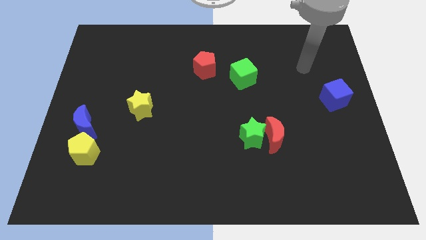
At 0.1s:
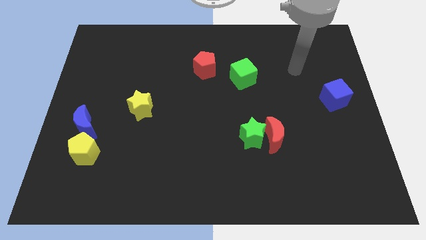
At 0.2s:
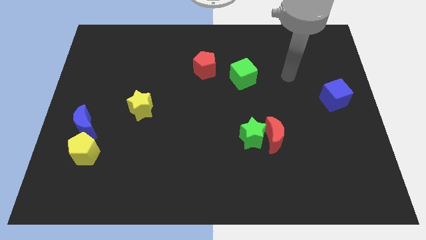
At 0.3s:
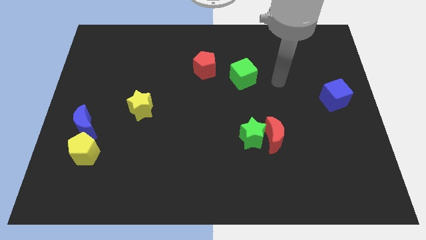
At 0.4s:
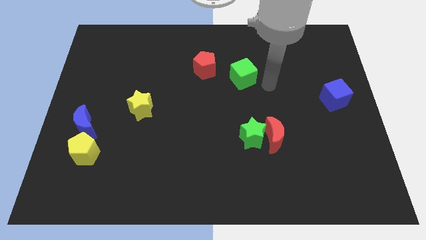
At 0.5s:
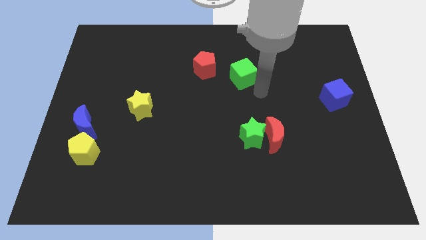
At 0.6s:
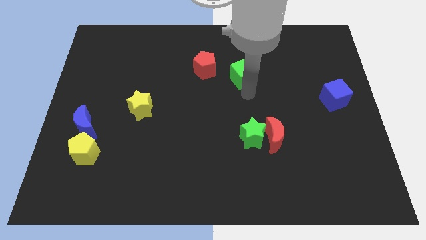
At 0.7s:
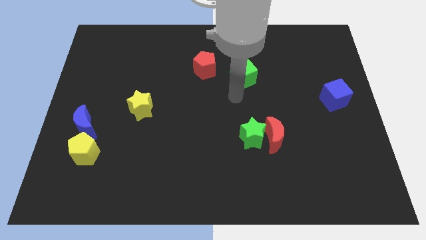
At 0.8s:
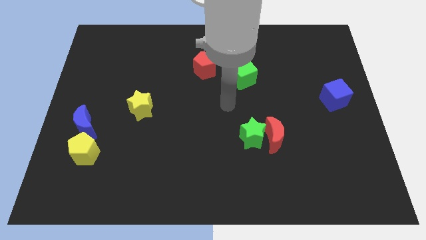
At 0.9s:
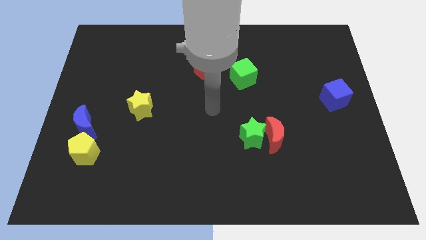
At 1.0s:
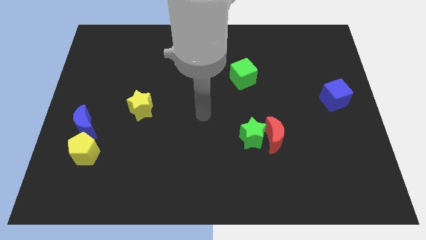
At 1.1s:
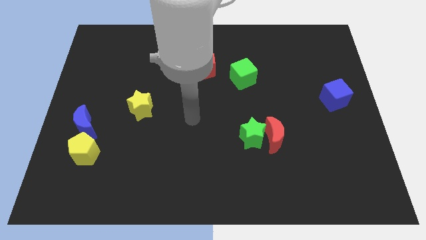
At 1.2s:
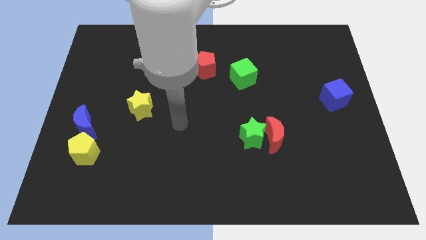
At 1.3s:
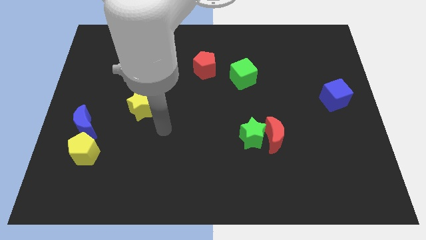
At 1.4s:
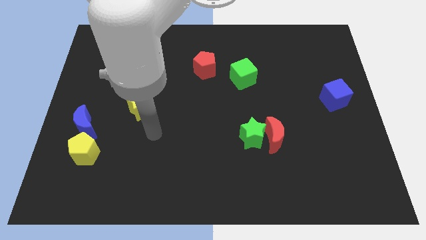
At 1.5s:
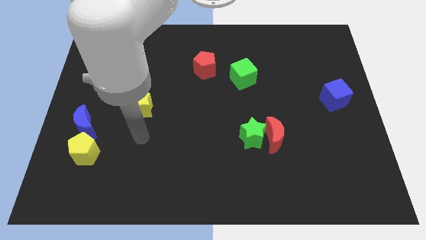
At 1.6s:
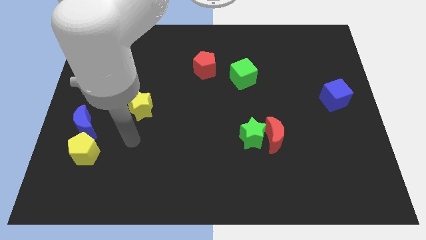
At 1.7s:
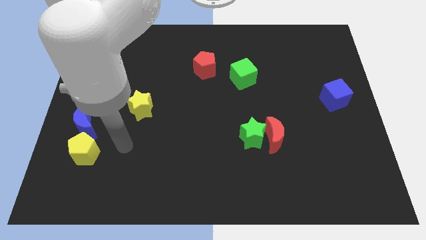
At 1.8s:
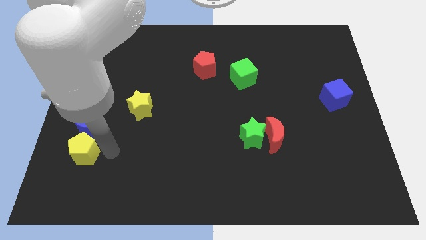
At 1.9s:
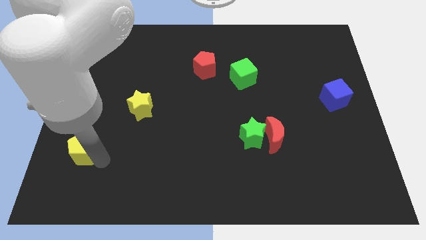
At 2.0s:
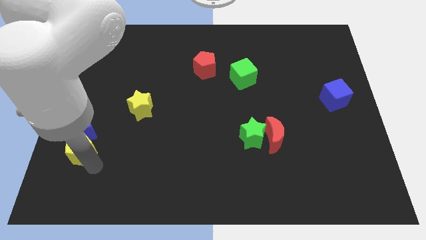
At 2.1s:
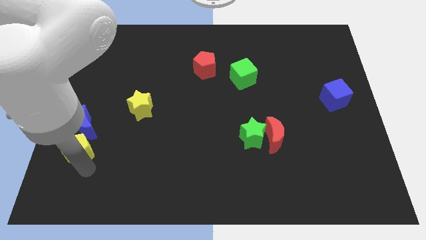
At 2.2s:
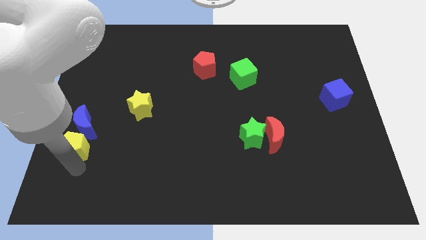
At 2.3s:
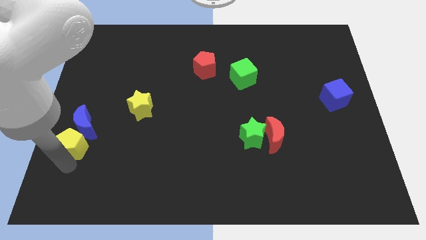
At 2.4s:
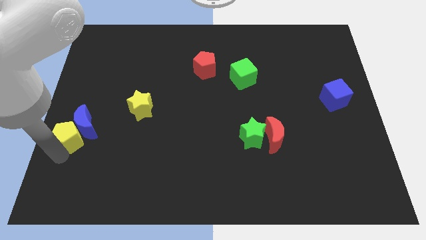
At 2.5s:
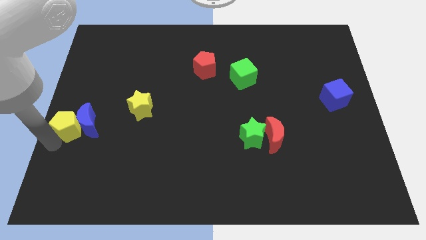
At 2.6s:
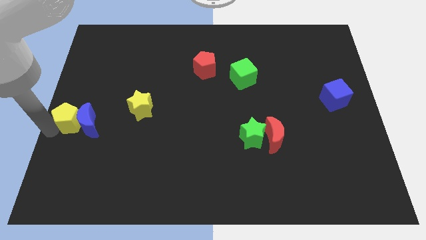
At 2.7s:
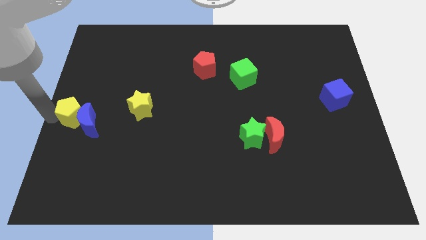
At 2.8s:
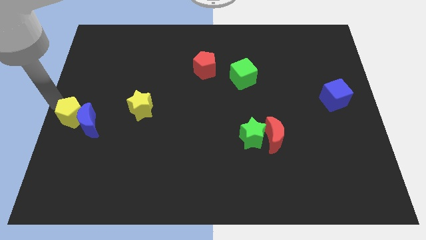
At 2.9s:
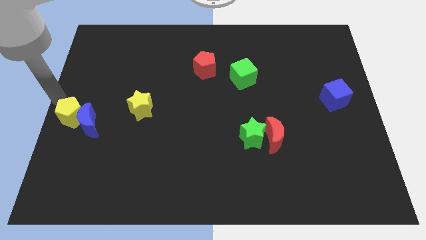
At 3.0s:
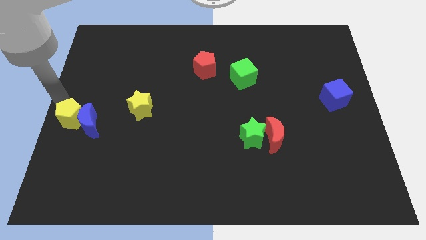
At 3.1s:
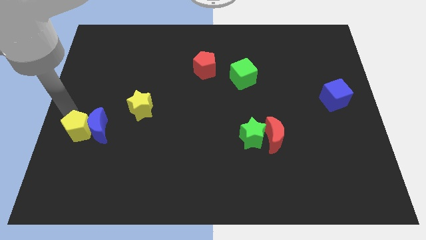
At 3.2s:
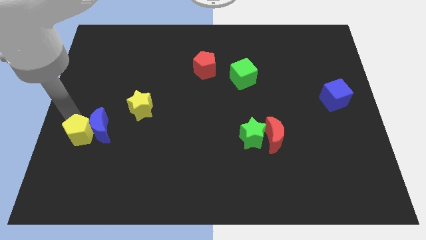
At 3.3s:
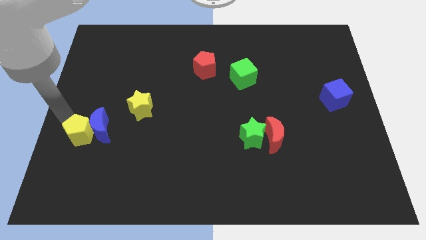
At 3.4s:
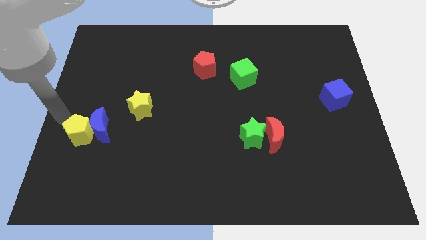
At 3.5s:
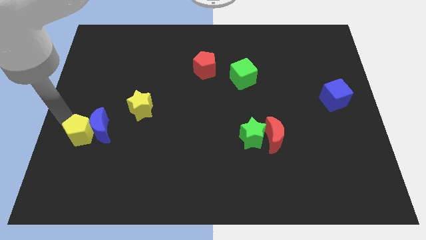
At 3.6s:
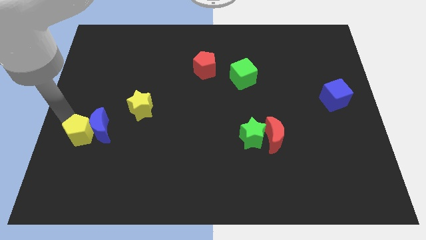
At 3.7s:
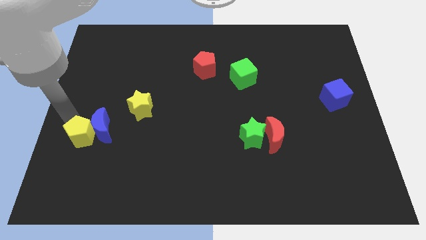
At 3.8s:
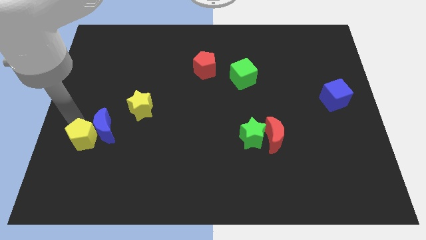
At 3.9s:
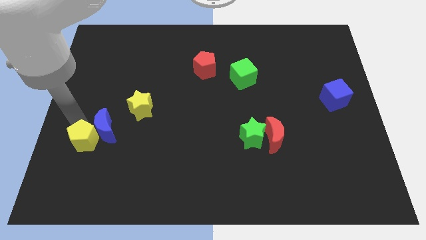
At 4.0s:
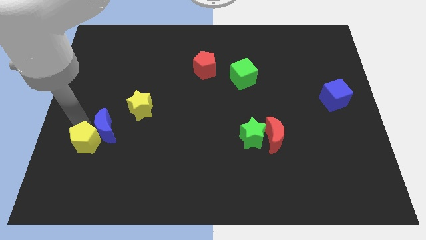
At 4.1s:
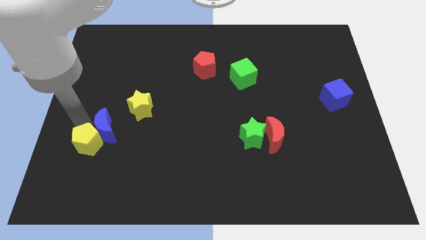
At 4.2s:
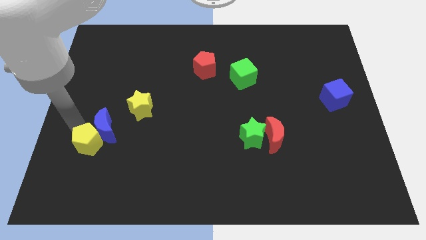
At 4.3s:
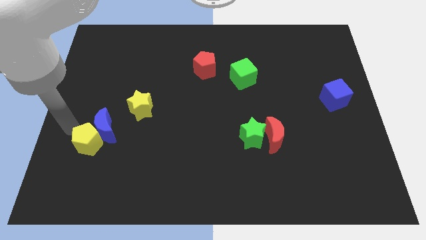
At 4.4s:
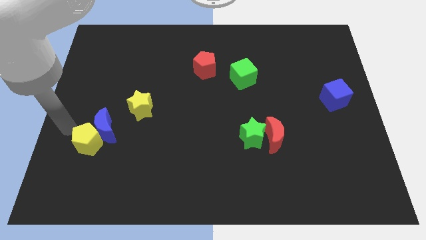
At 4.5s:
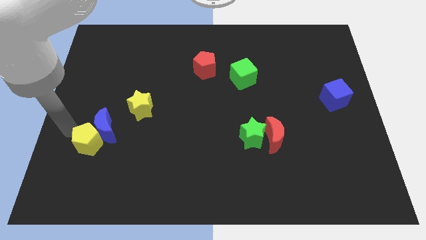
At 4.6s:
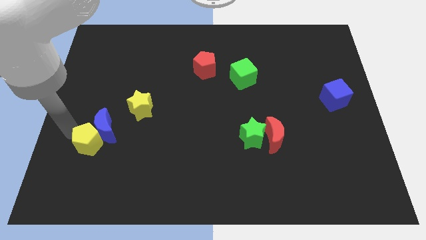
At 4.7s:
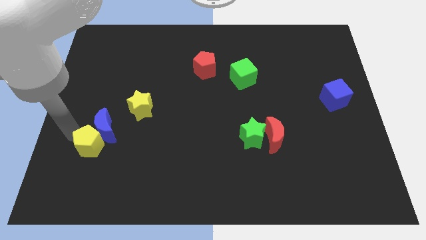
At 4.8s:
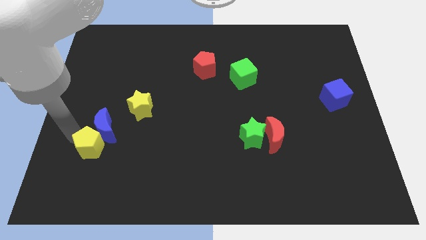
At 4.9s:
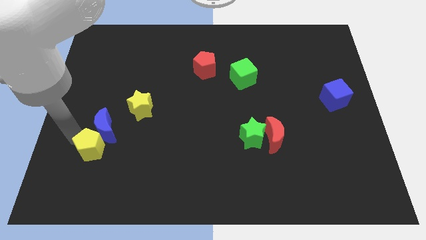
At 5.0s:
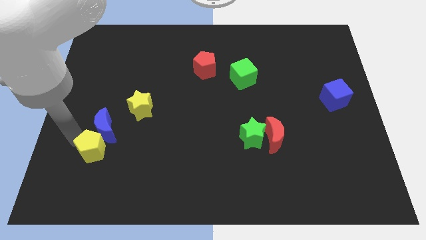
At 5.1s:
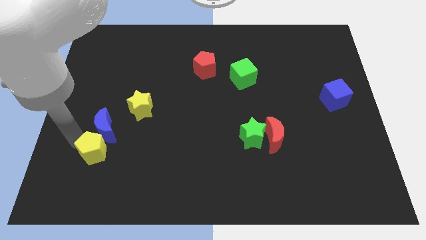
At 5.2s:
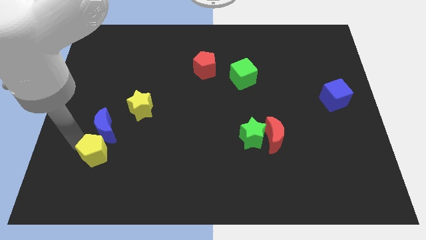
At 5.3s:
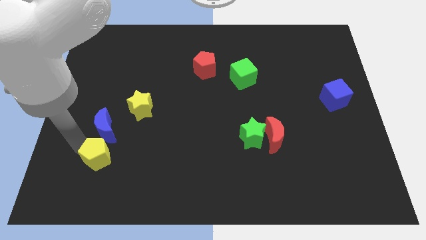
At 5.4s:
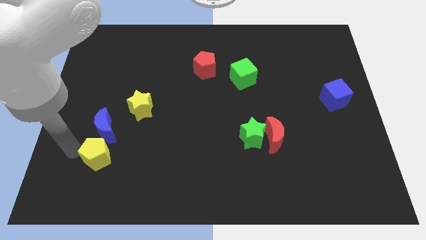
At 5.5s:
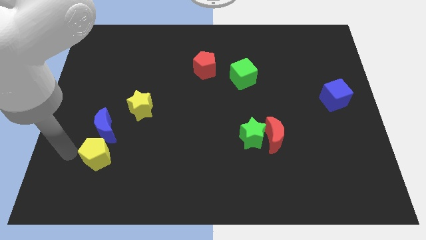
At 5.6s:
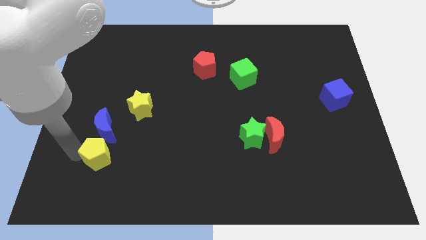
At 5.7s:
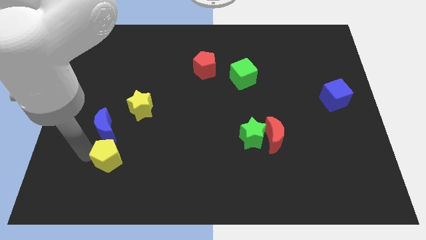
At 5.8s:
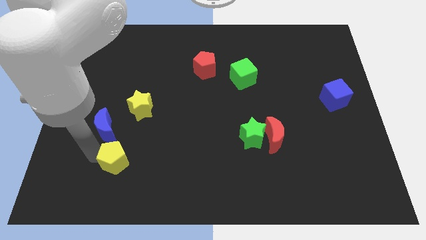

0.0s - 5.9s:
slightly push the yellow pentagon right

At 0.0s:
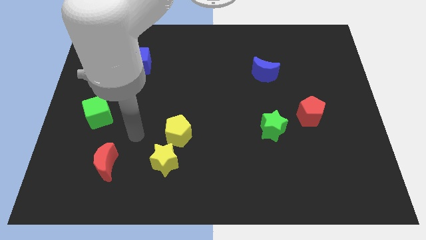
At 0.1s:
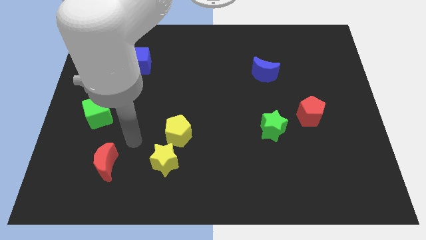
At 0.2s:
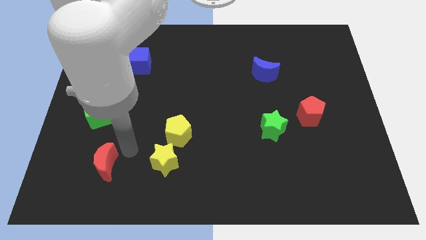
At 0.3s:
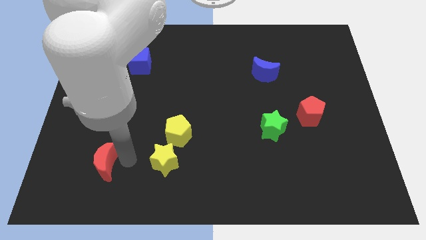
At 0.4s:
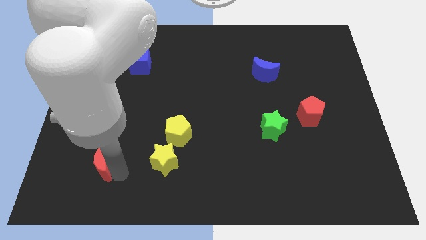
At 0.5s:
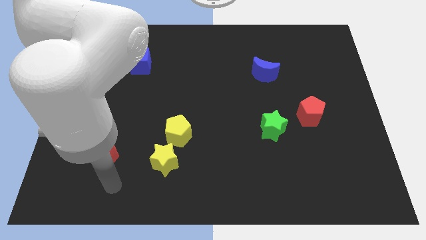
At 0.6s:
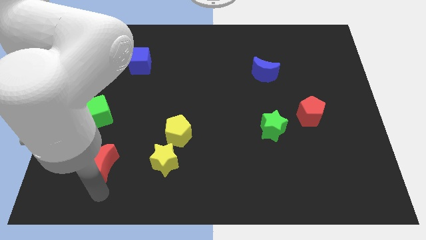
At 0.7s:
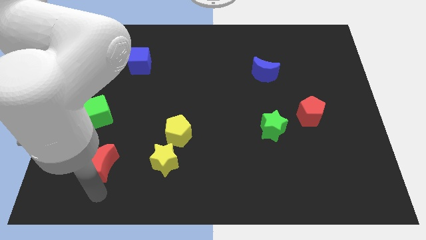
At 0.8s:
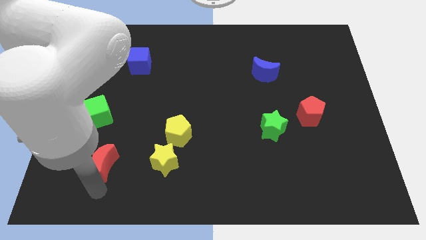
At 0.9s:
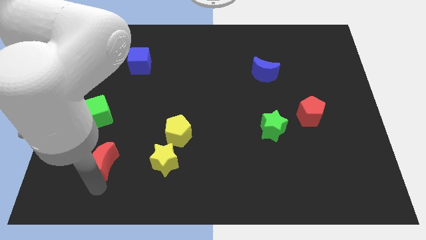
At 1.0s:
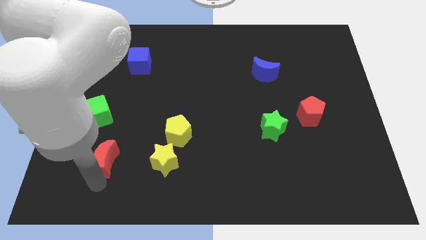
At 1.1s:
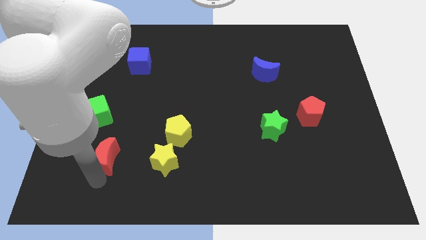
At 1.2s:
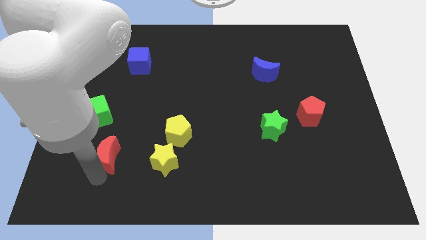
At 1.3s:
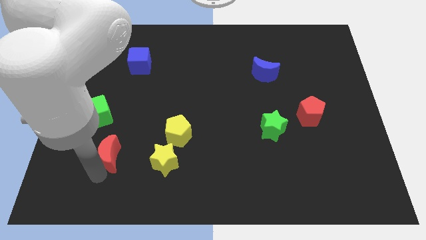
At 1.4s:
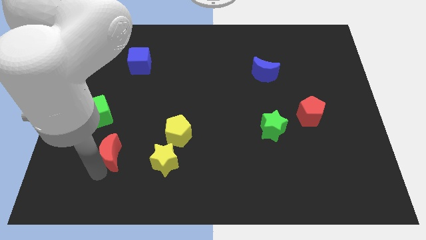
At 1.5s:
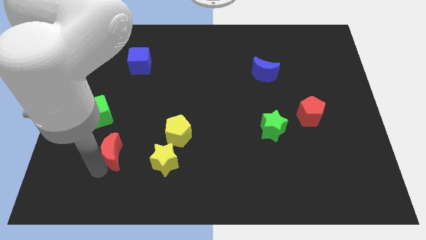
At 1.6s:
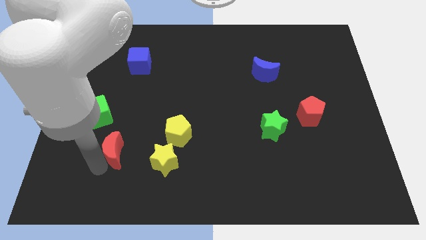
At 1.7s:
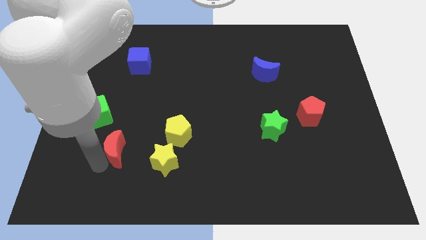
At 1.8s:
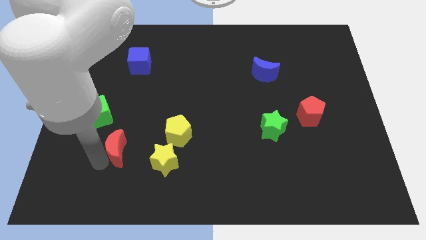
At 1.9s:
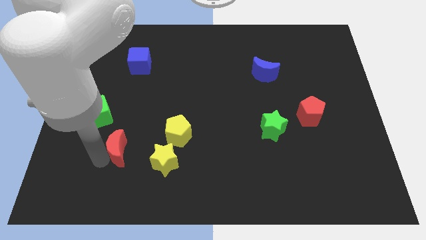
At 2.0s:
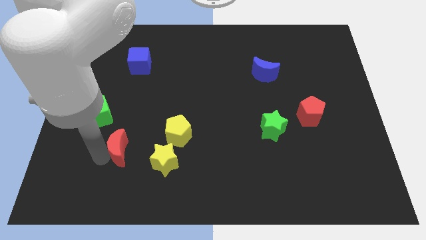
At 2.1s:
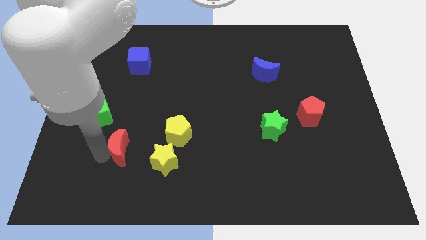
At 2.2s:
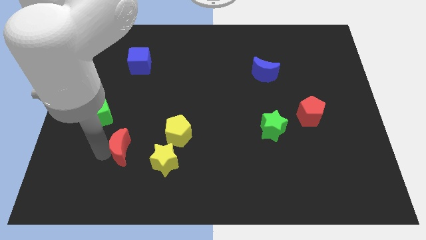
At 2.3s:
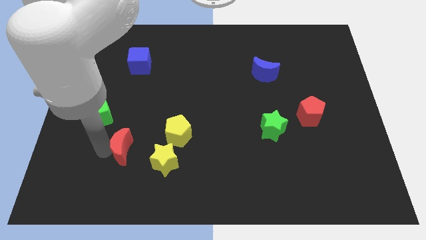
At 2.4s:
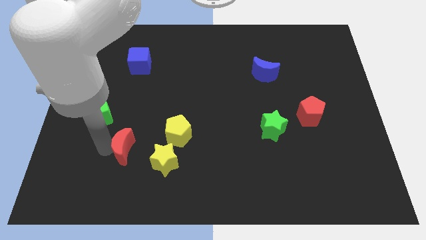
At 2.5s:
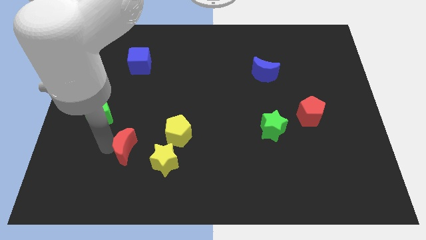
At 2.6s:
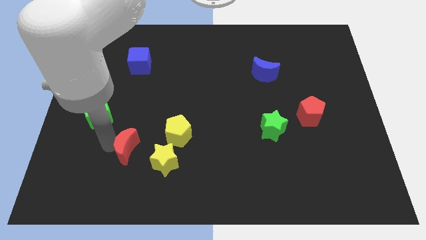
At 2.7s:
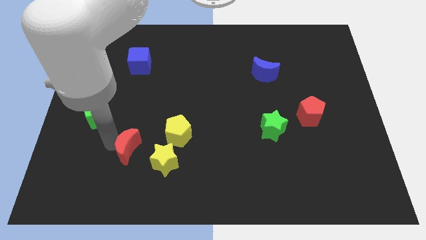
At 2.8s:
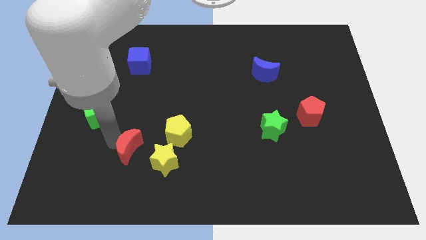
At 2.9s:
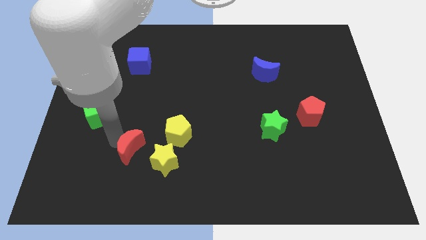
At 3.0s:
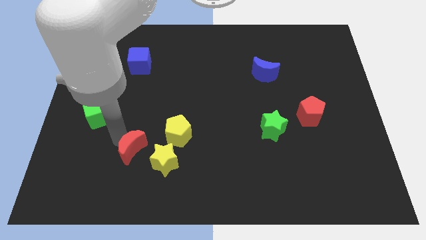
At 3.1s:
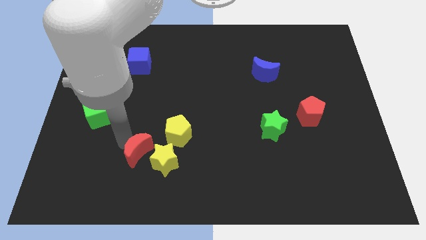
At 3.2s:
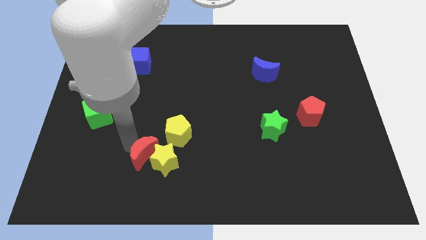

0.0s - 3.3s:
slightly push the red moon up and then right
